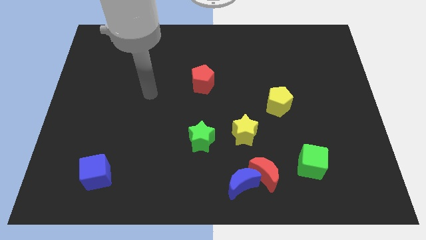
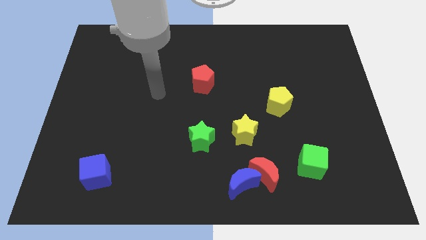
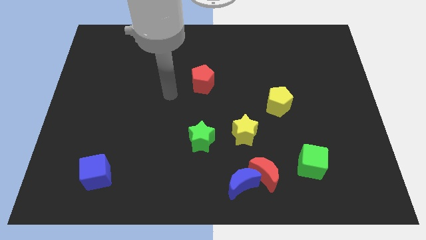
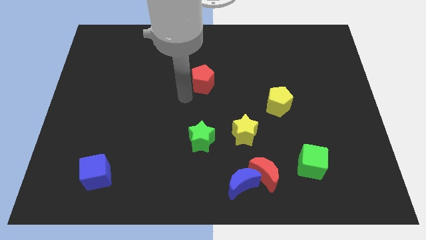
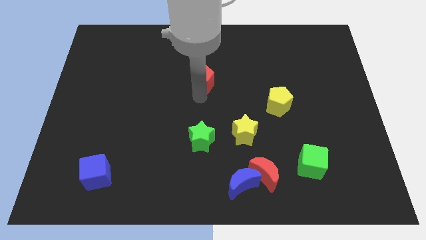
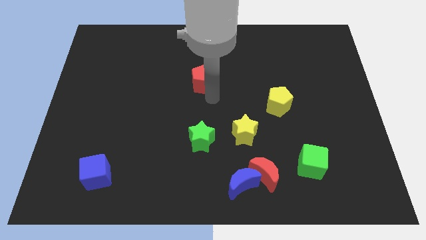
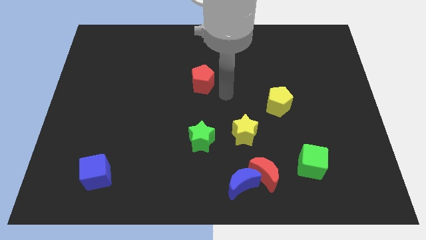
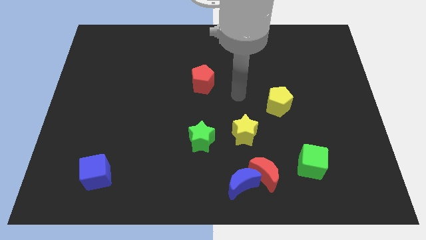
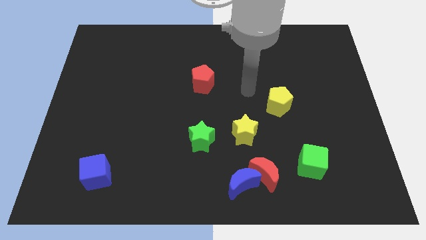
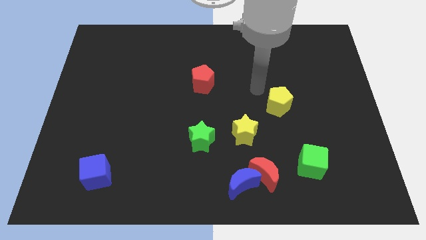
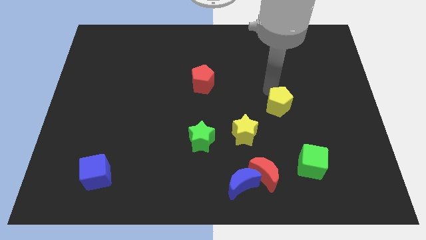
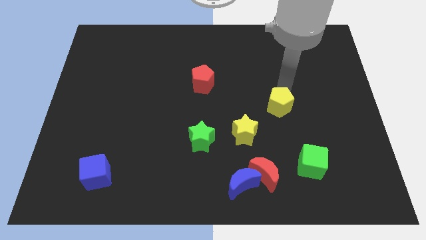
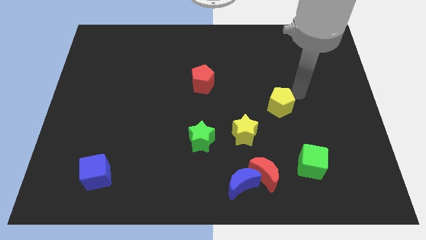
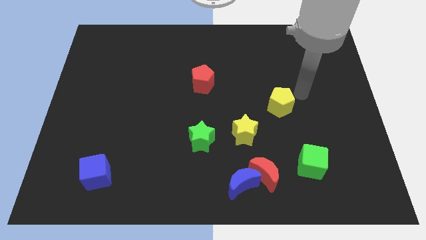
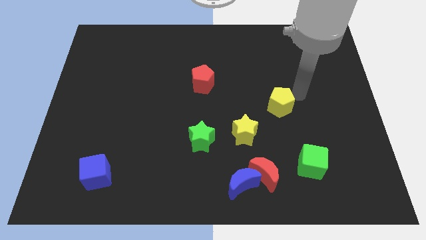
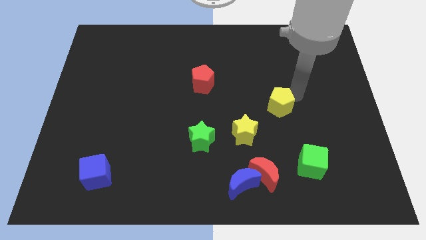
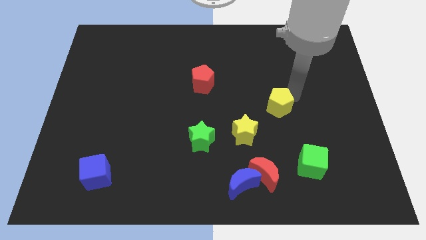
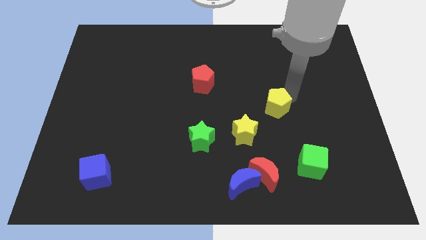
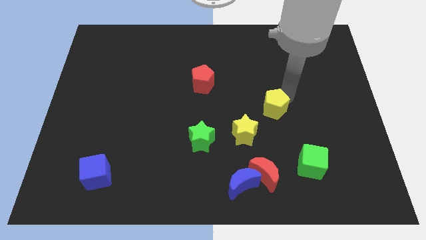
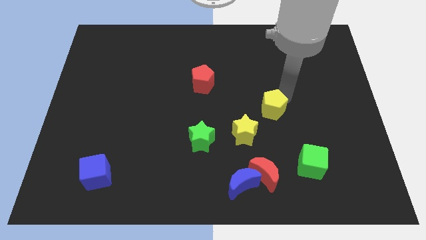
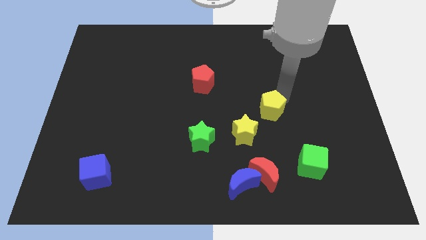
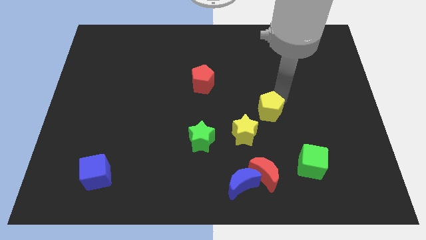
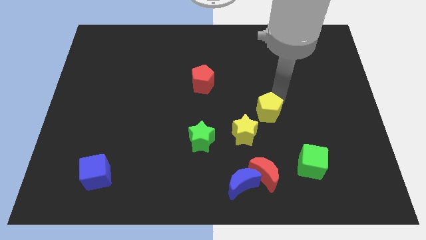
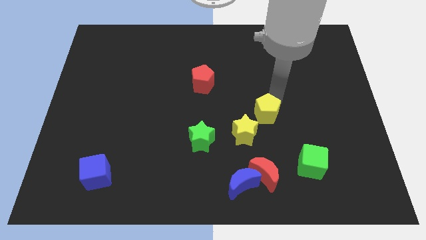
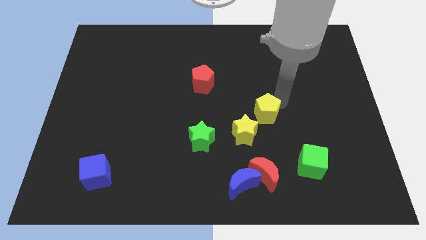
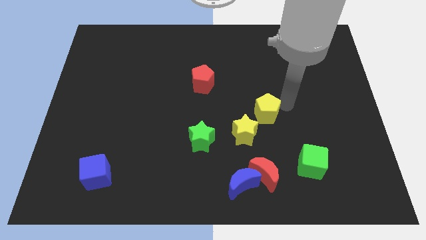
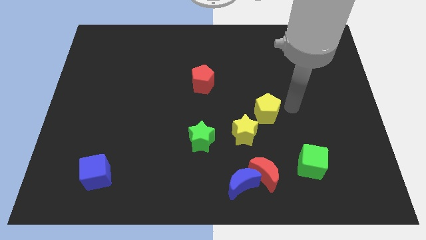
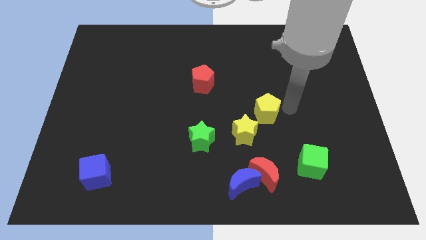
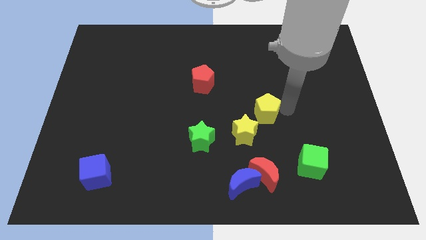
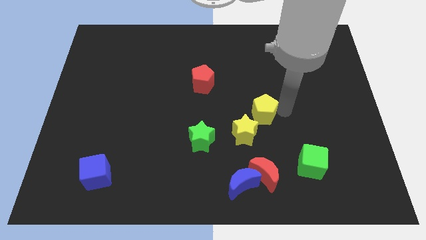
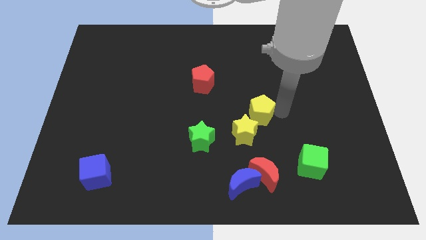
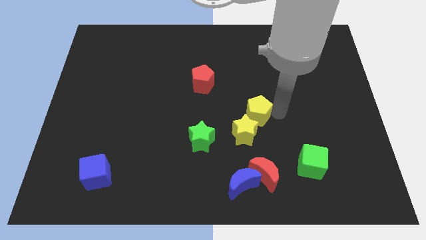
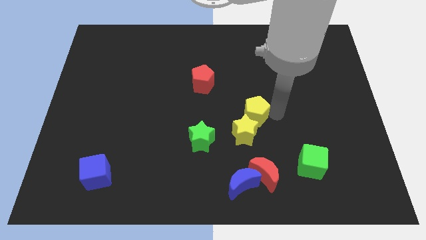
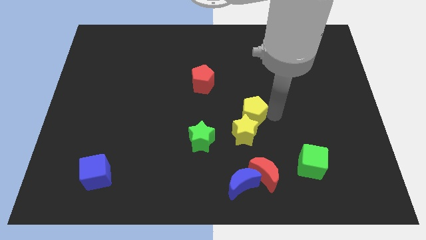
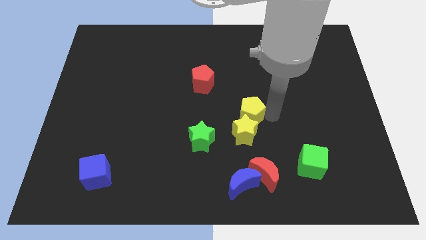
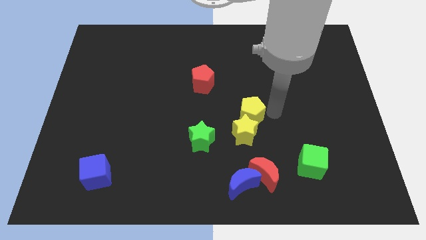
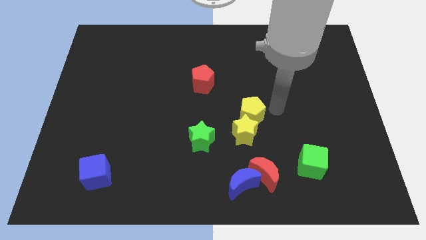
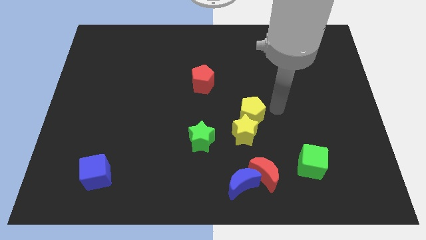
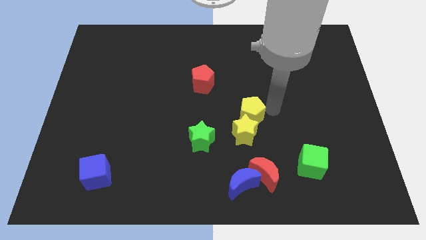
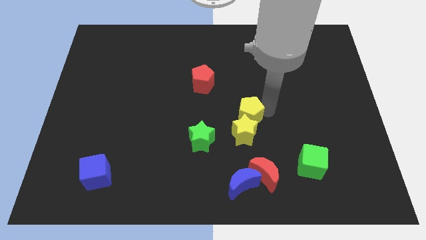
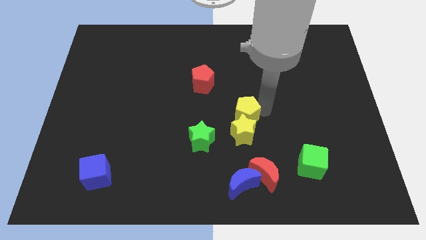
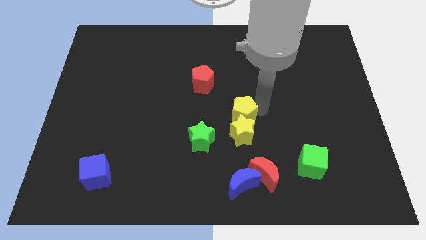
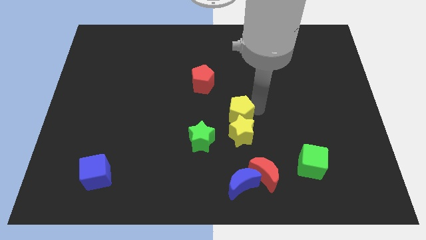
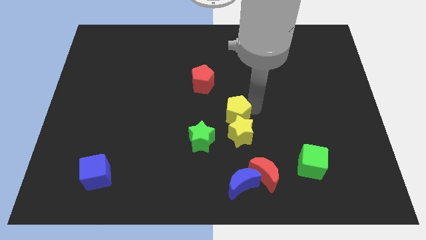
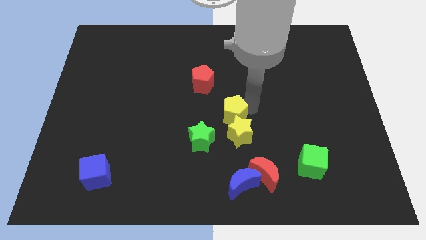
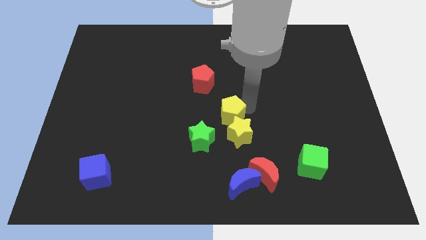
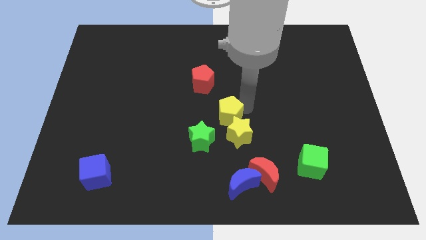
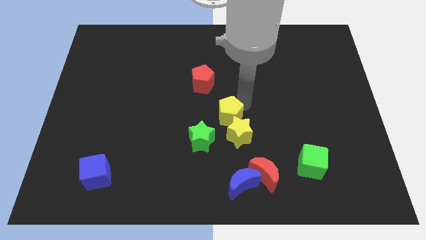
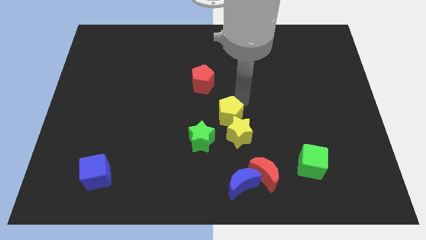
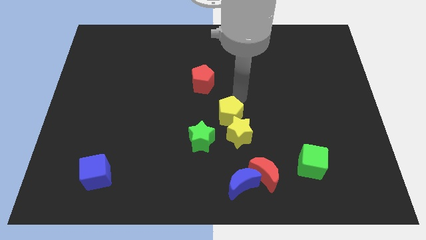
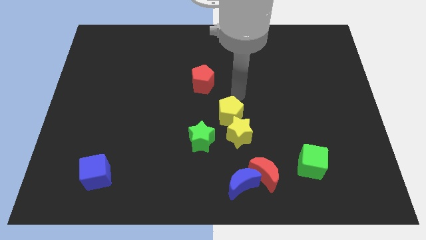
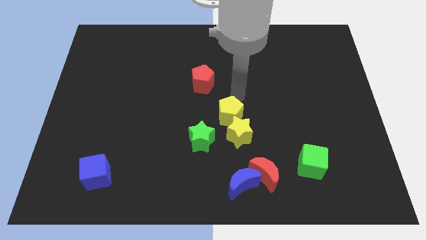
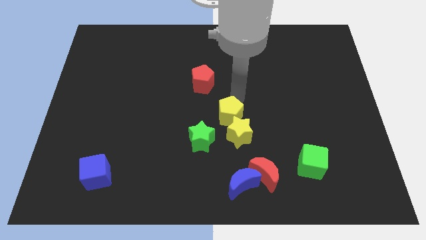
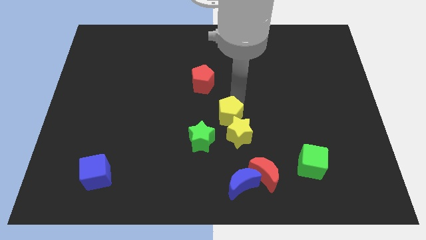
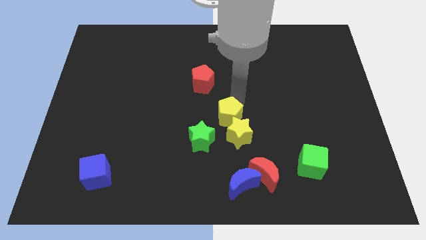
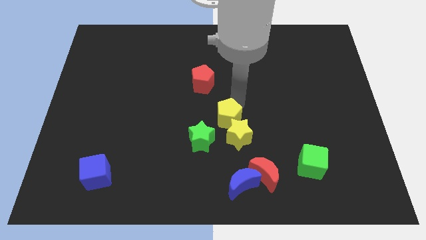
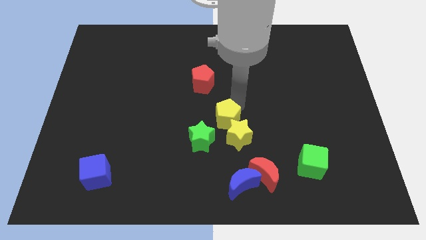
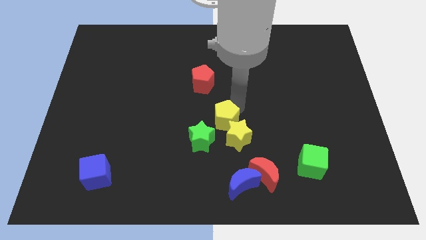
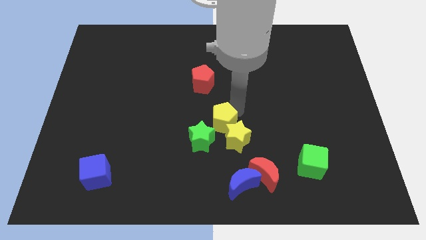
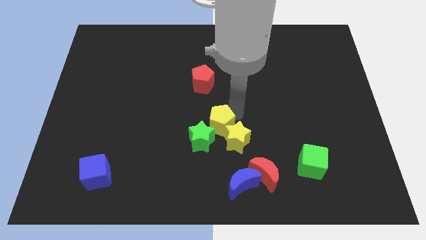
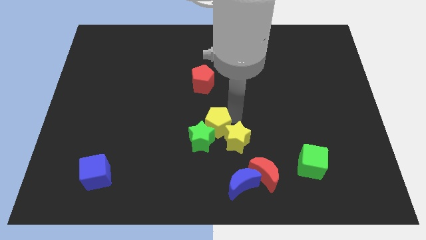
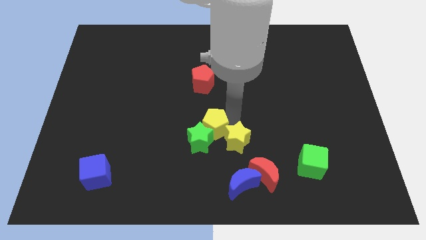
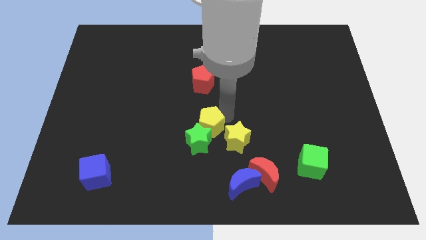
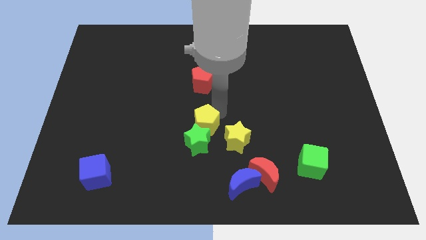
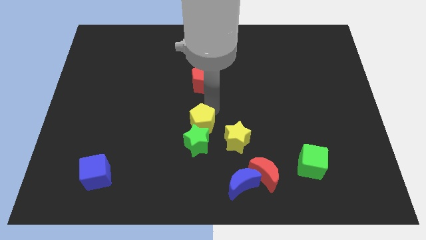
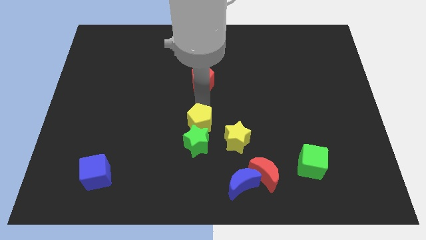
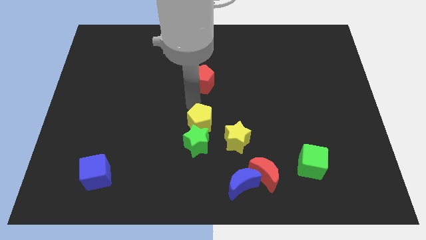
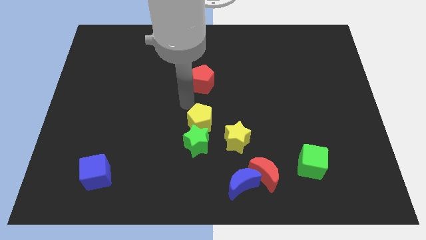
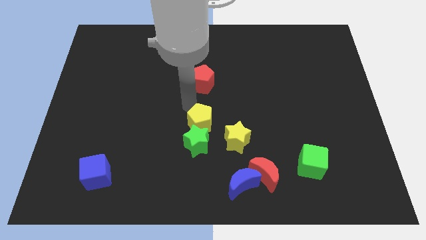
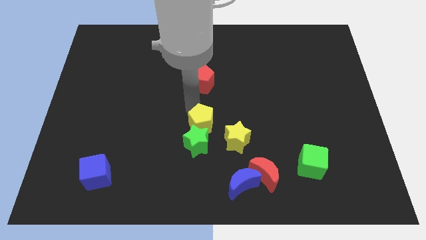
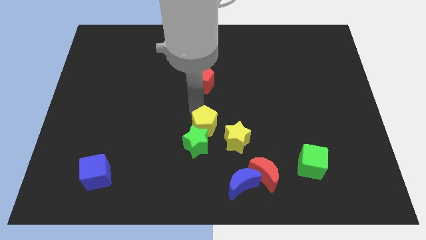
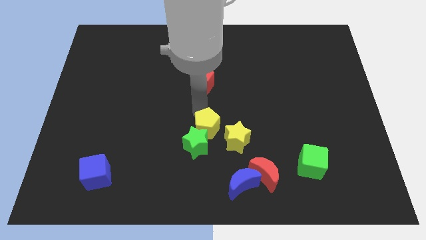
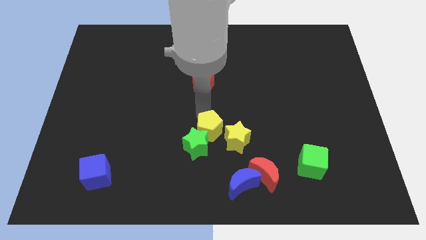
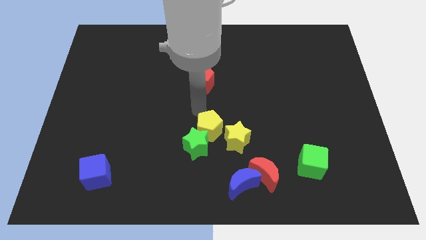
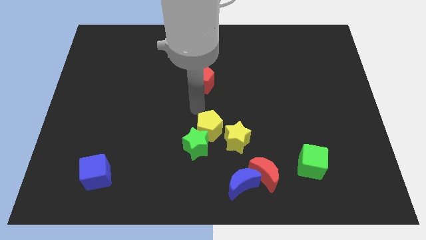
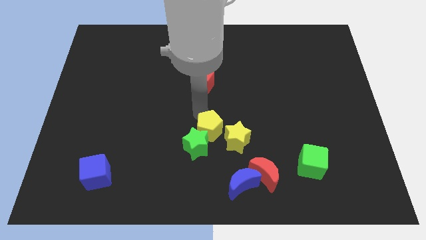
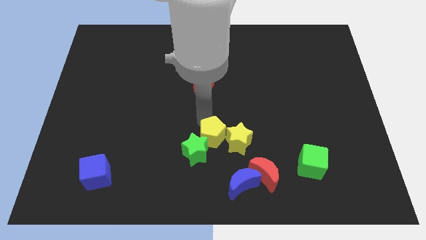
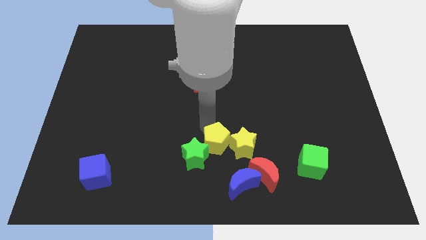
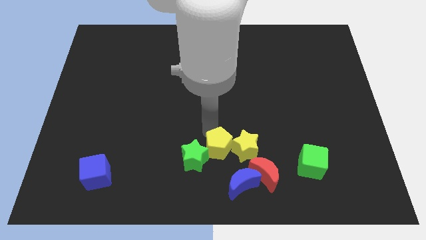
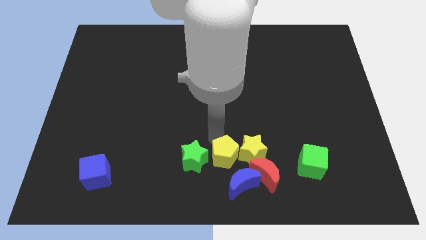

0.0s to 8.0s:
push the yellow pentagon to the bottom side
